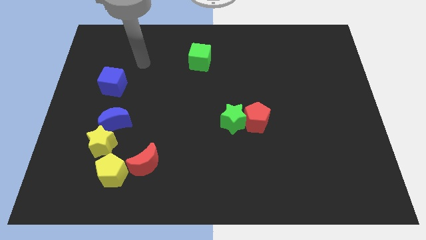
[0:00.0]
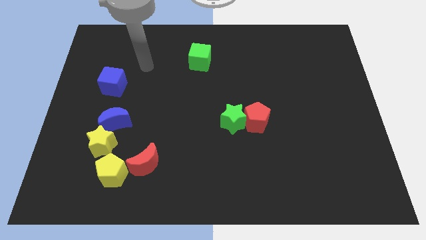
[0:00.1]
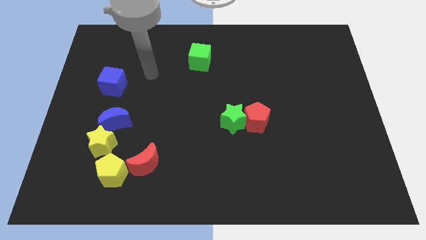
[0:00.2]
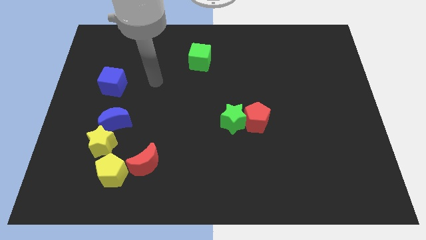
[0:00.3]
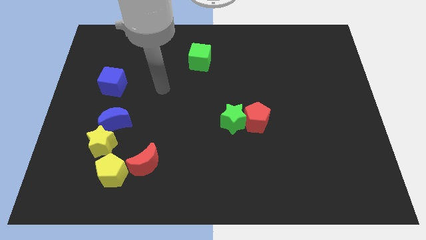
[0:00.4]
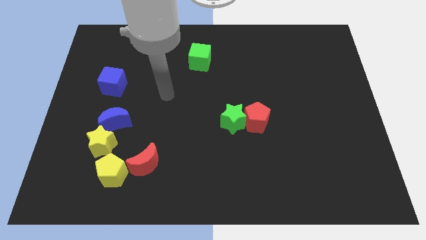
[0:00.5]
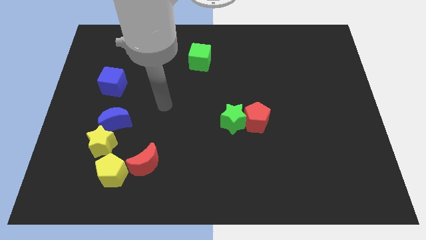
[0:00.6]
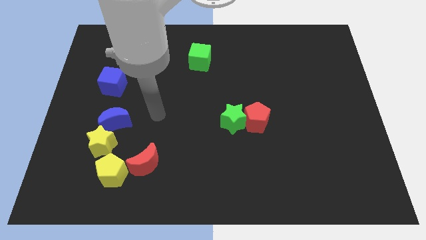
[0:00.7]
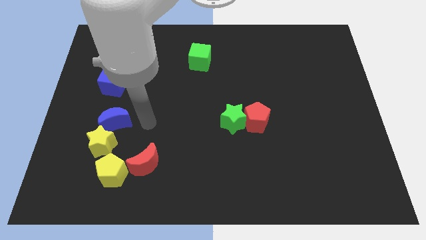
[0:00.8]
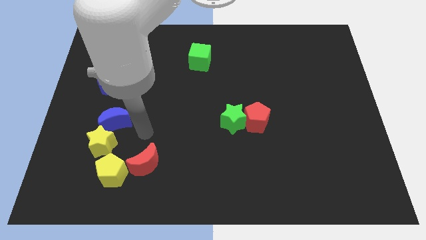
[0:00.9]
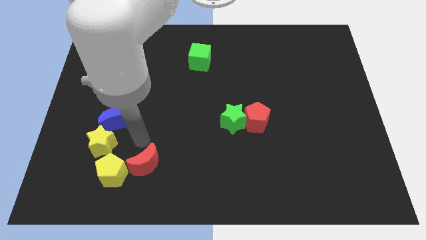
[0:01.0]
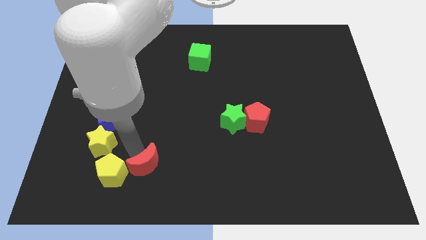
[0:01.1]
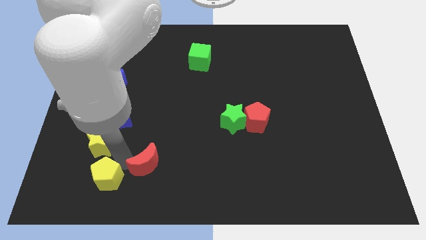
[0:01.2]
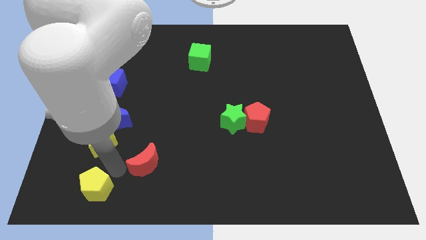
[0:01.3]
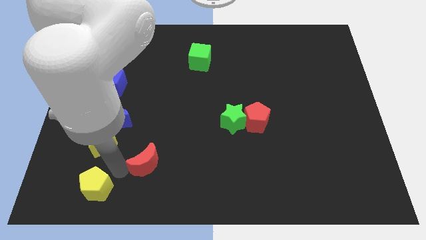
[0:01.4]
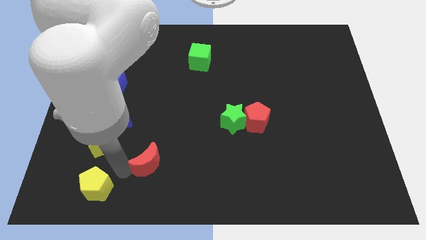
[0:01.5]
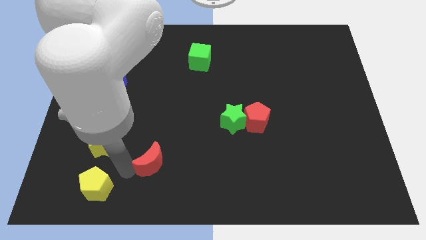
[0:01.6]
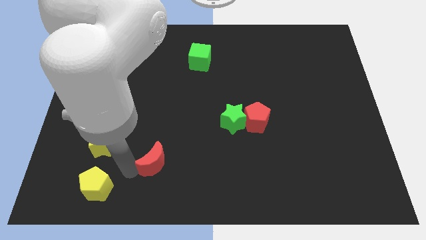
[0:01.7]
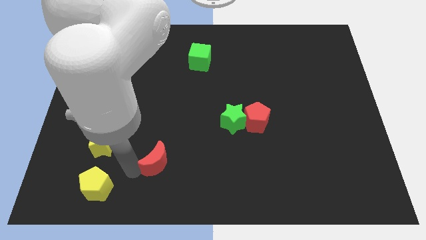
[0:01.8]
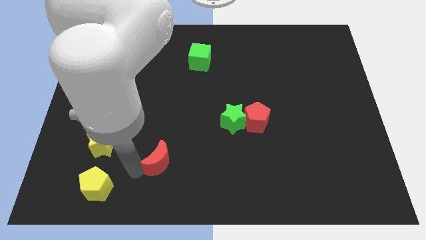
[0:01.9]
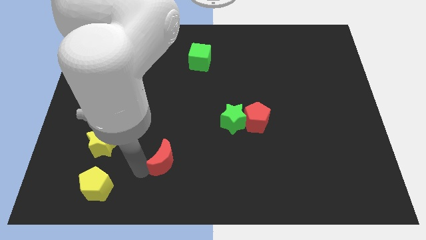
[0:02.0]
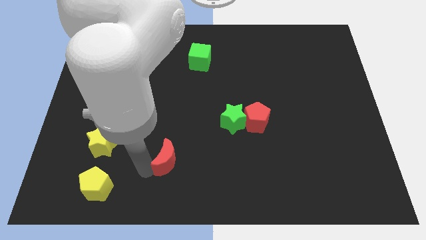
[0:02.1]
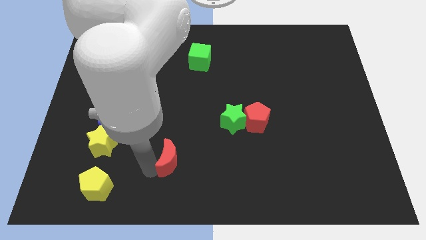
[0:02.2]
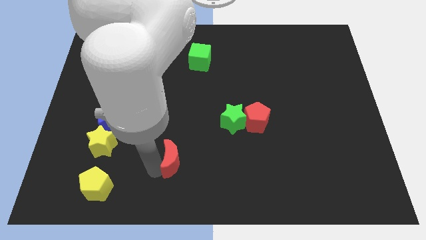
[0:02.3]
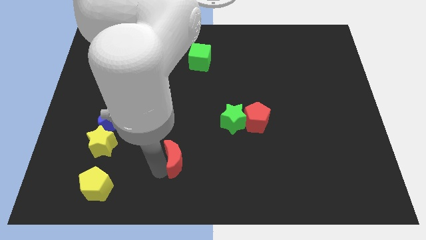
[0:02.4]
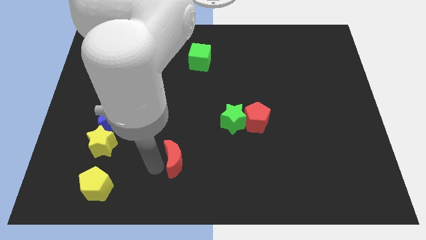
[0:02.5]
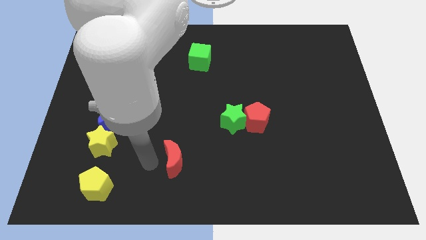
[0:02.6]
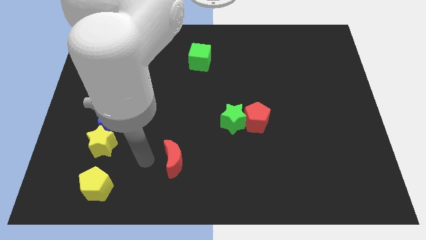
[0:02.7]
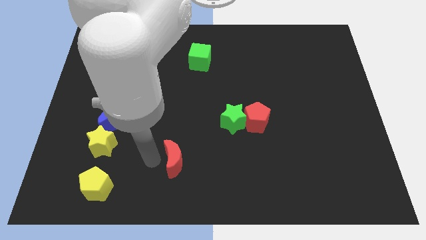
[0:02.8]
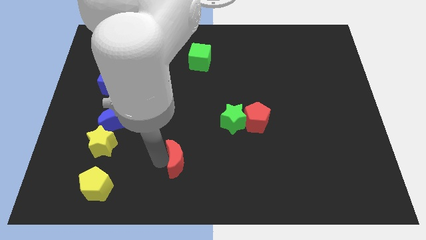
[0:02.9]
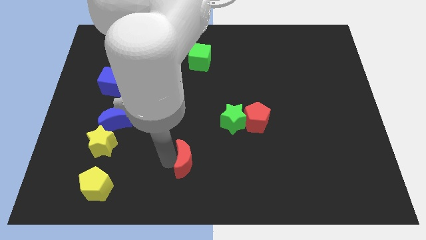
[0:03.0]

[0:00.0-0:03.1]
slightly slide the red moon to the right

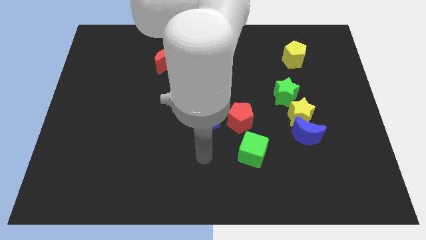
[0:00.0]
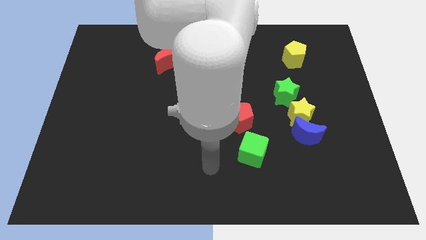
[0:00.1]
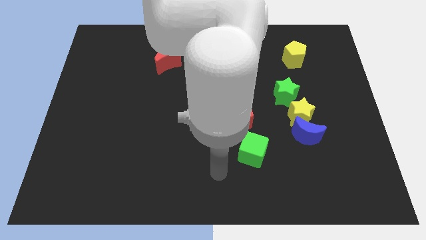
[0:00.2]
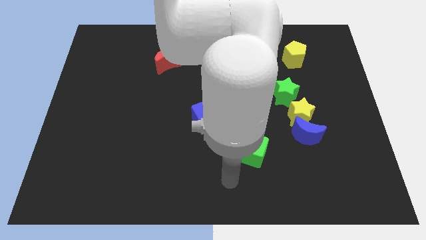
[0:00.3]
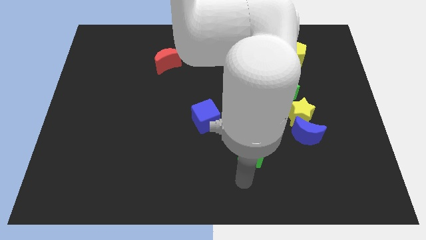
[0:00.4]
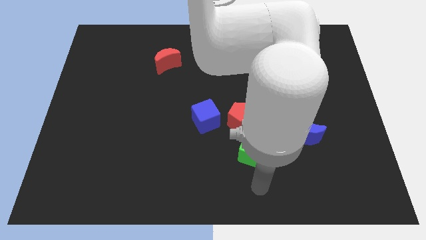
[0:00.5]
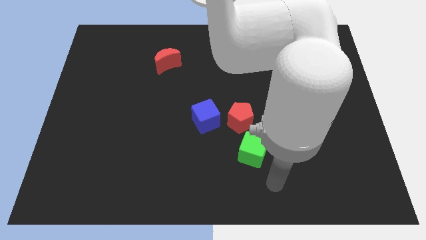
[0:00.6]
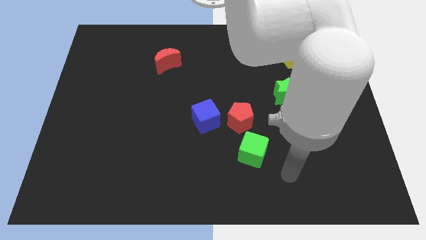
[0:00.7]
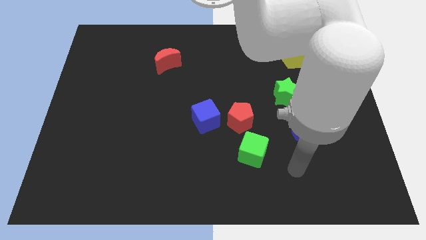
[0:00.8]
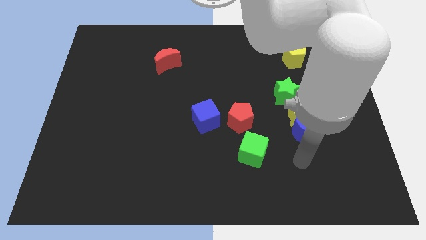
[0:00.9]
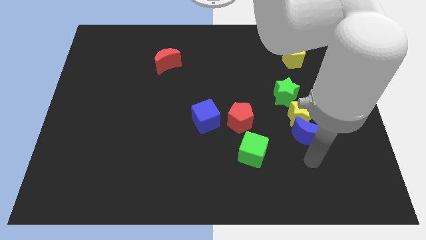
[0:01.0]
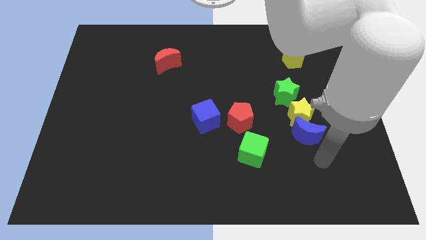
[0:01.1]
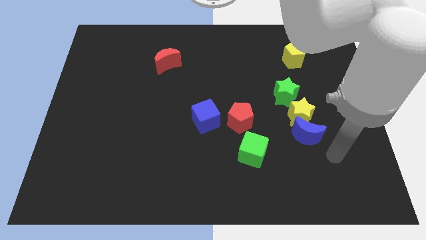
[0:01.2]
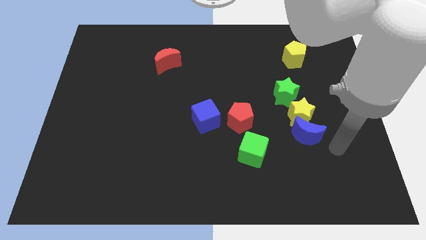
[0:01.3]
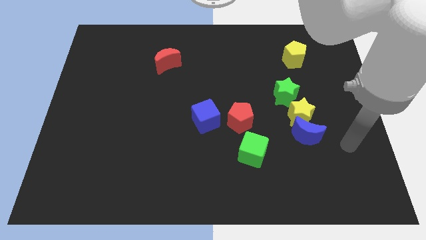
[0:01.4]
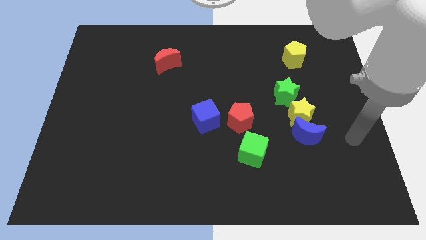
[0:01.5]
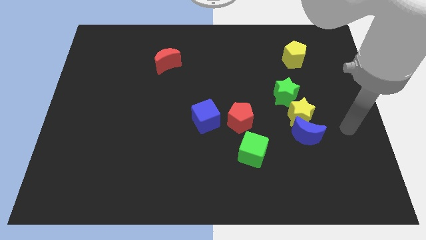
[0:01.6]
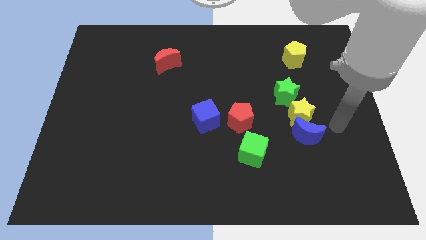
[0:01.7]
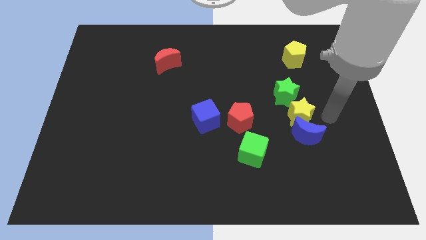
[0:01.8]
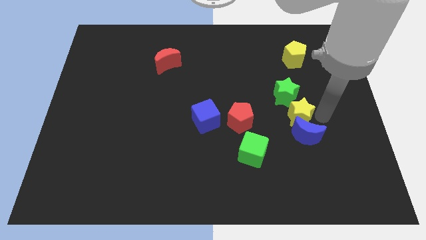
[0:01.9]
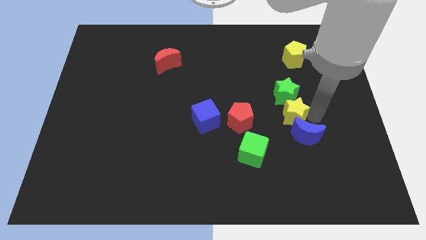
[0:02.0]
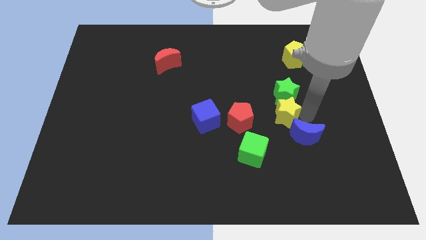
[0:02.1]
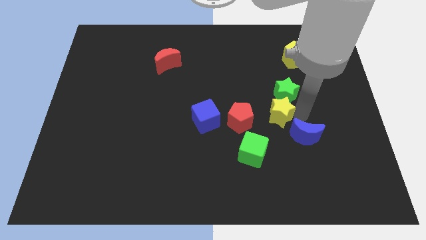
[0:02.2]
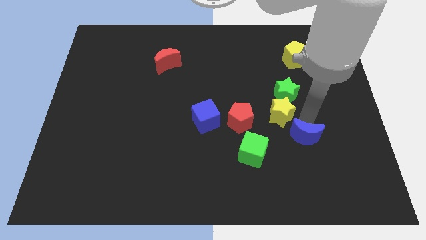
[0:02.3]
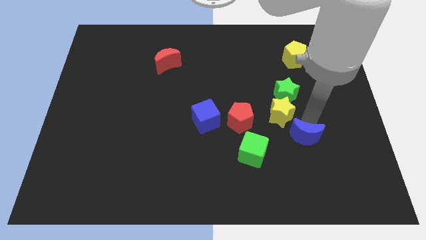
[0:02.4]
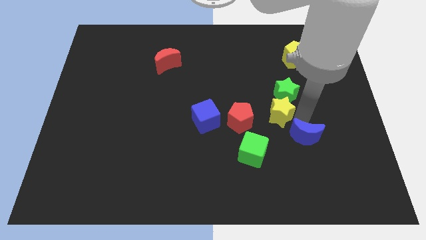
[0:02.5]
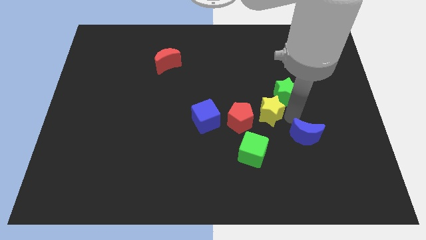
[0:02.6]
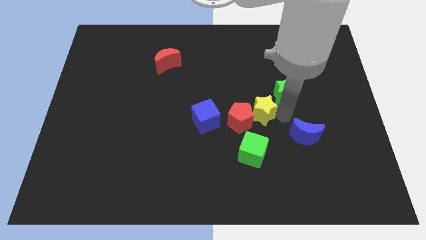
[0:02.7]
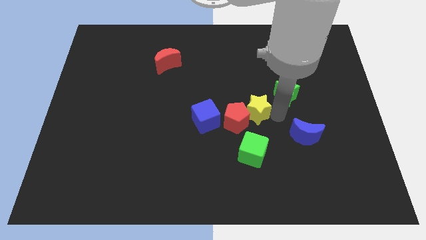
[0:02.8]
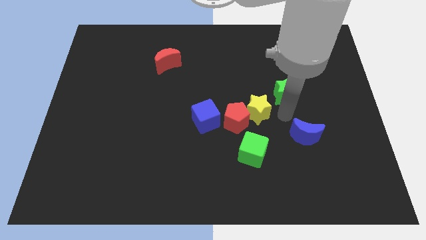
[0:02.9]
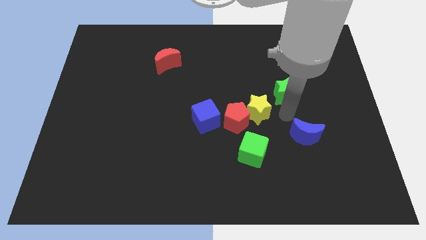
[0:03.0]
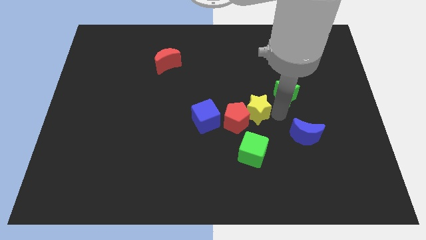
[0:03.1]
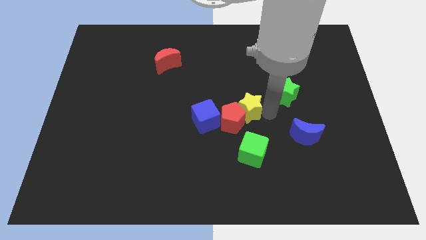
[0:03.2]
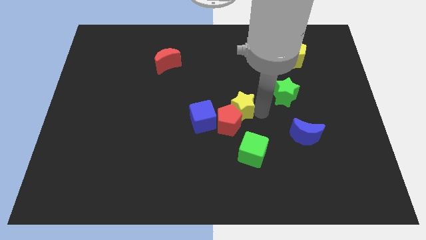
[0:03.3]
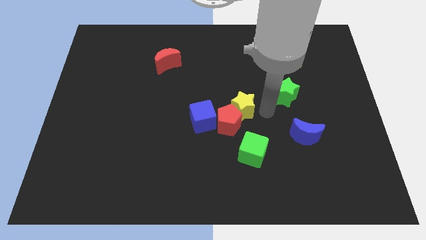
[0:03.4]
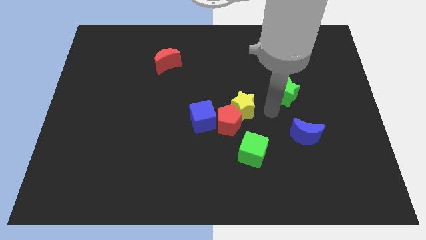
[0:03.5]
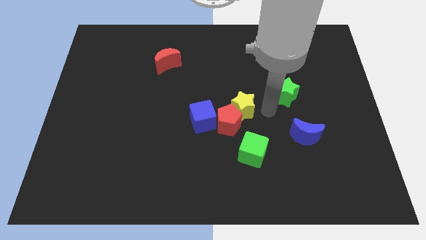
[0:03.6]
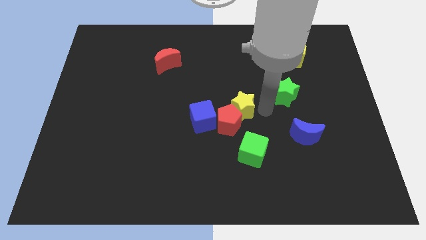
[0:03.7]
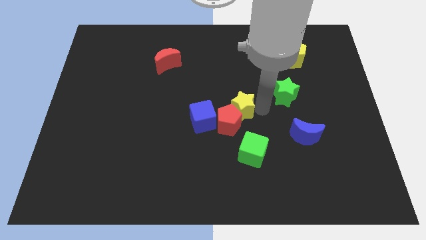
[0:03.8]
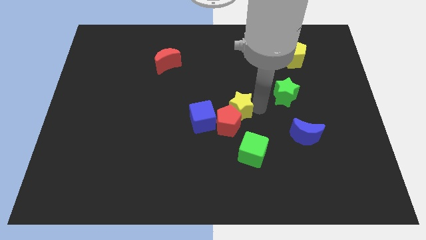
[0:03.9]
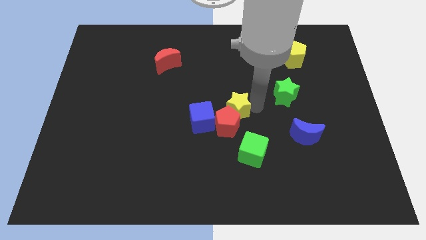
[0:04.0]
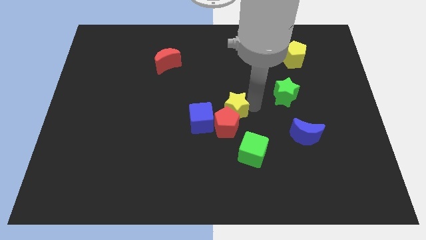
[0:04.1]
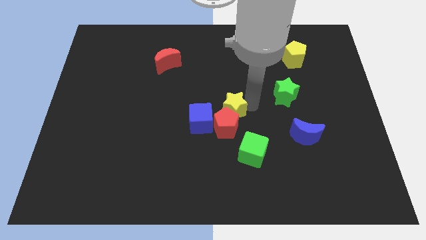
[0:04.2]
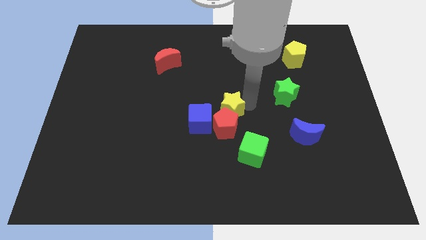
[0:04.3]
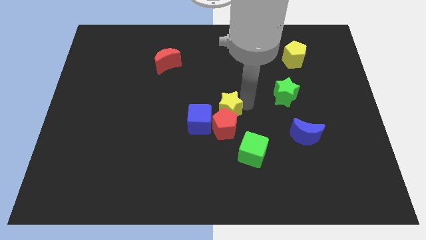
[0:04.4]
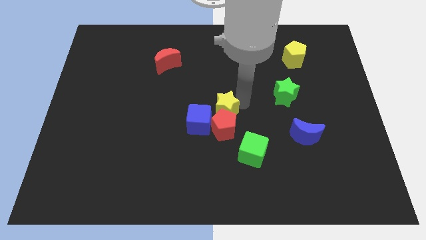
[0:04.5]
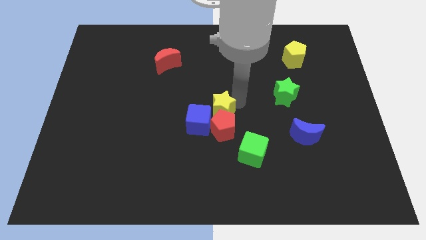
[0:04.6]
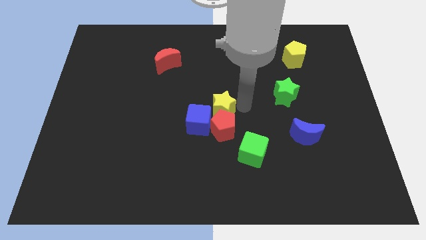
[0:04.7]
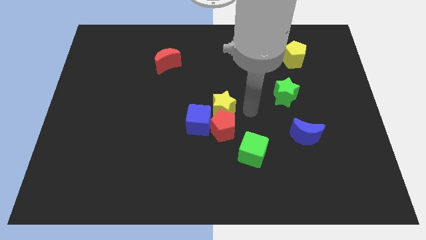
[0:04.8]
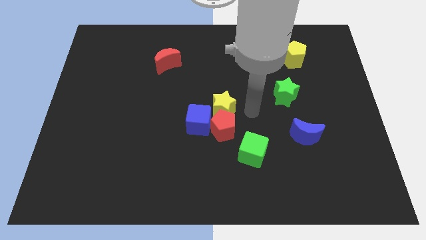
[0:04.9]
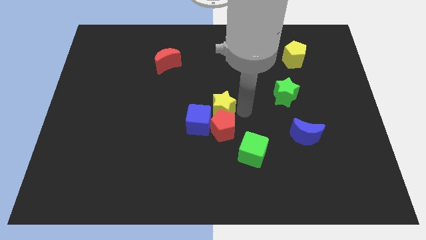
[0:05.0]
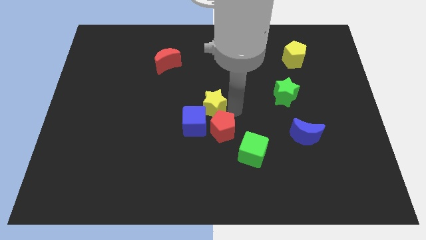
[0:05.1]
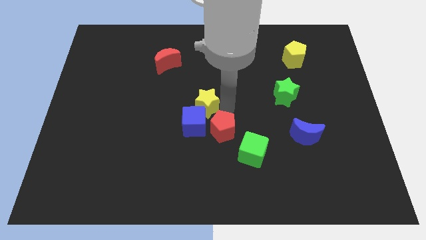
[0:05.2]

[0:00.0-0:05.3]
move the yellow star left
